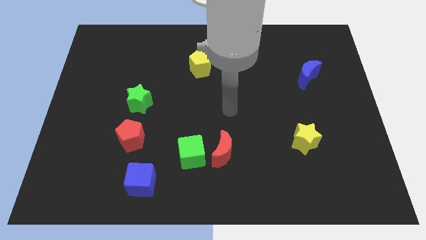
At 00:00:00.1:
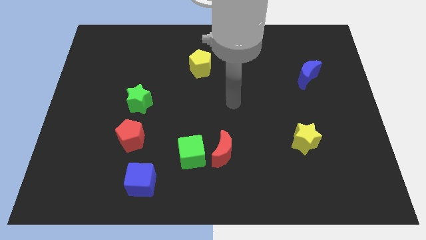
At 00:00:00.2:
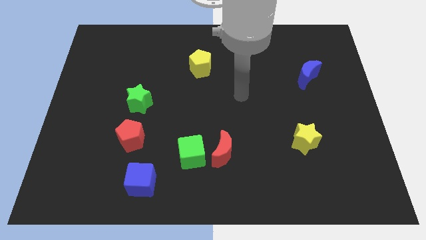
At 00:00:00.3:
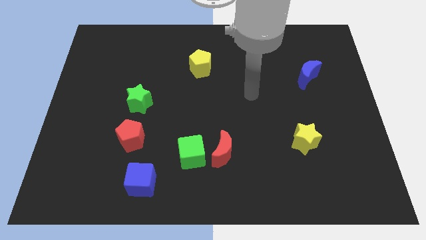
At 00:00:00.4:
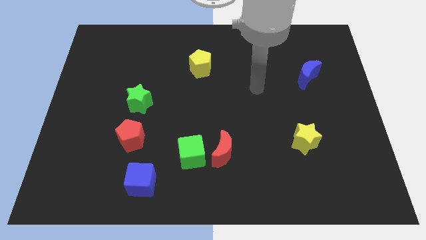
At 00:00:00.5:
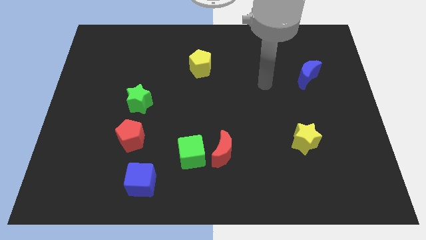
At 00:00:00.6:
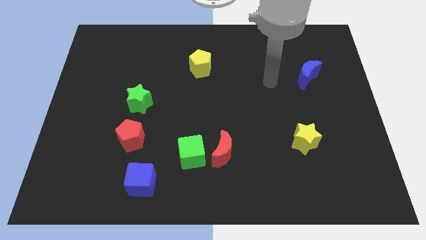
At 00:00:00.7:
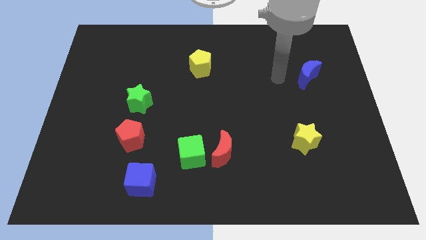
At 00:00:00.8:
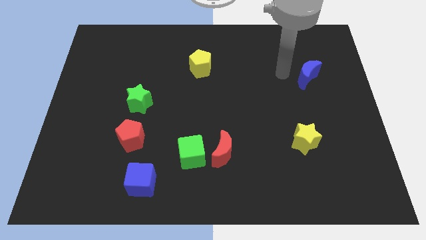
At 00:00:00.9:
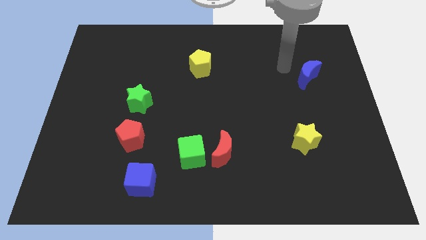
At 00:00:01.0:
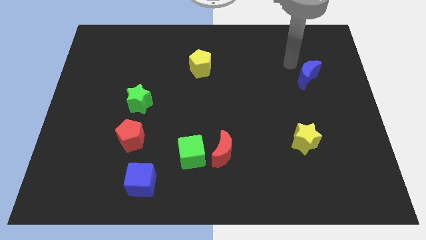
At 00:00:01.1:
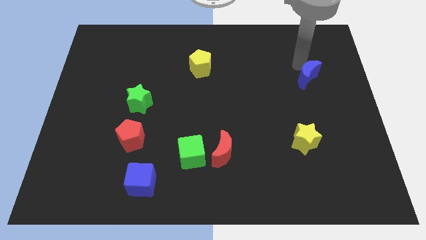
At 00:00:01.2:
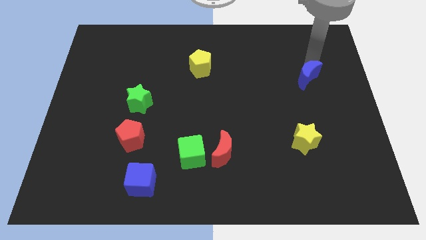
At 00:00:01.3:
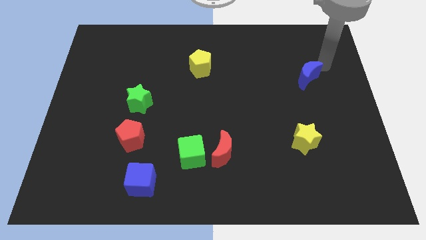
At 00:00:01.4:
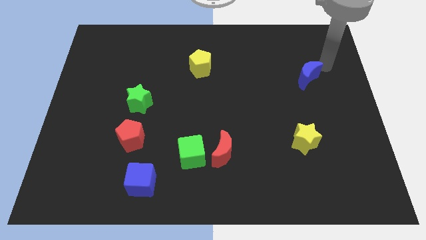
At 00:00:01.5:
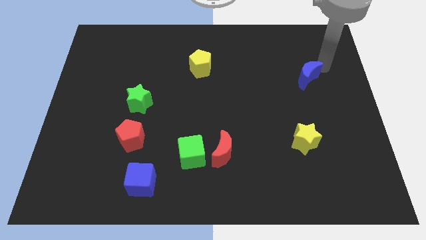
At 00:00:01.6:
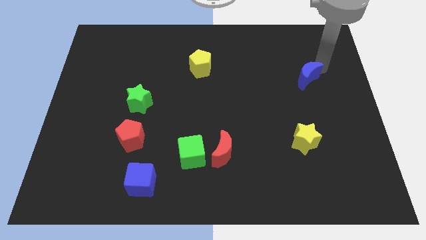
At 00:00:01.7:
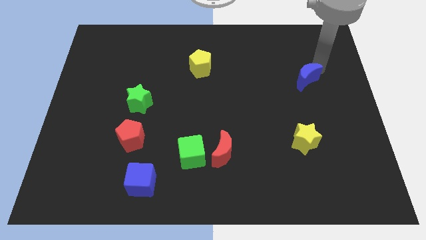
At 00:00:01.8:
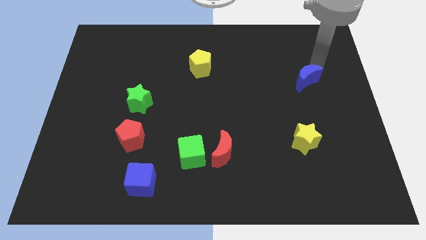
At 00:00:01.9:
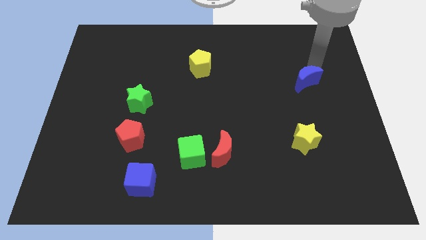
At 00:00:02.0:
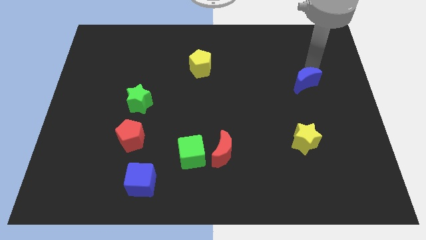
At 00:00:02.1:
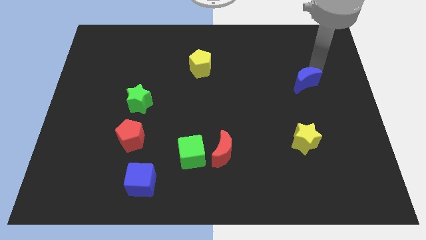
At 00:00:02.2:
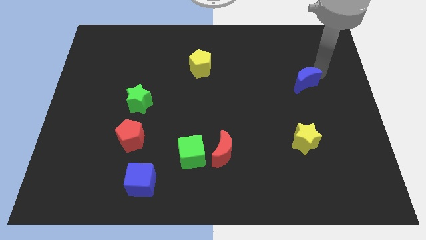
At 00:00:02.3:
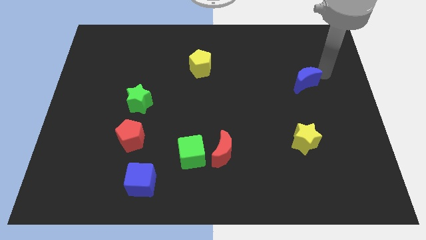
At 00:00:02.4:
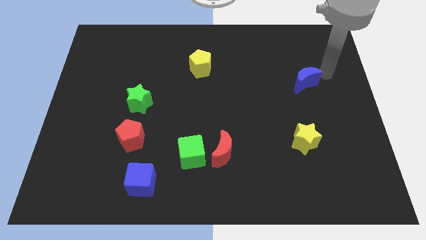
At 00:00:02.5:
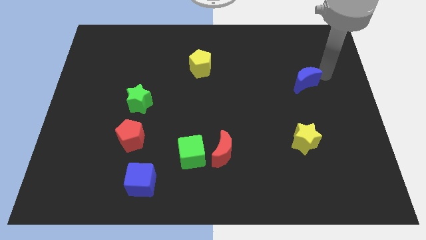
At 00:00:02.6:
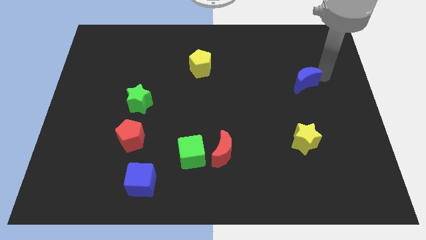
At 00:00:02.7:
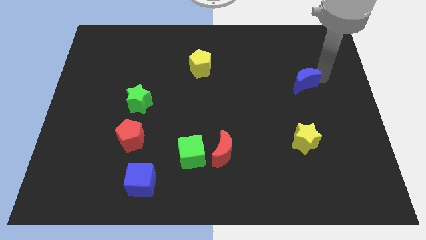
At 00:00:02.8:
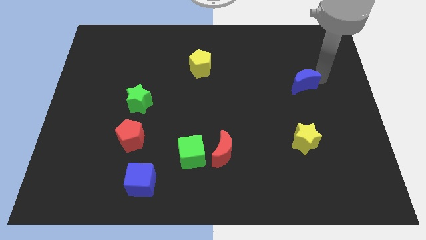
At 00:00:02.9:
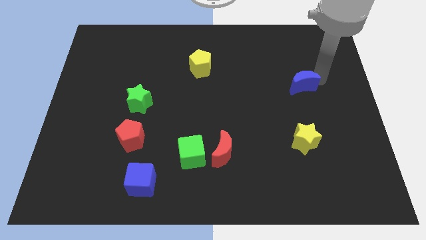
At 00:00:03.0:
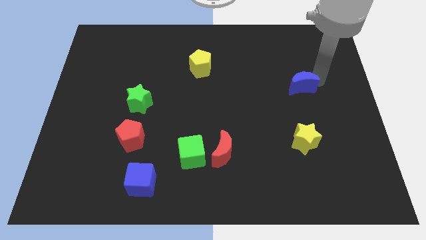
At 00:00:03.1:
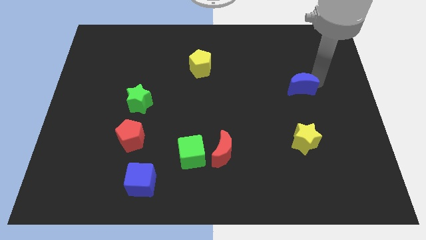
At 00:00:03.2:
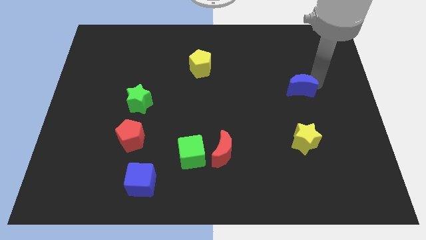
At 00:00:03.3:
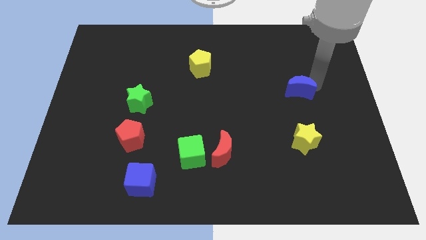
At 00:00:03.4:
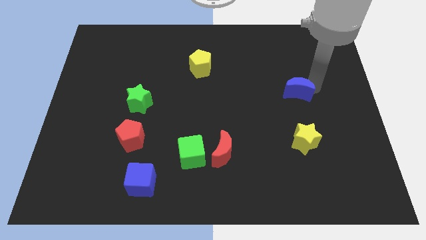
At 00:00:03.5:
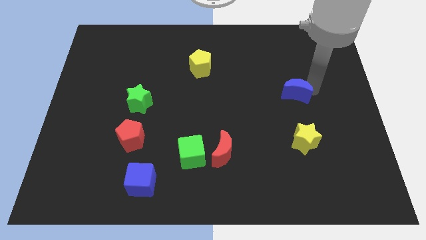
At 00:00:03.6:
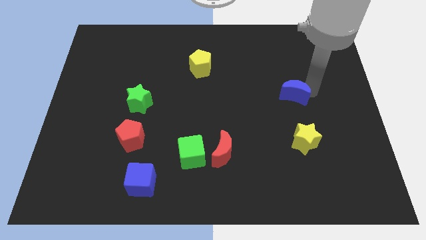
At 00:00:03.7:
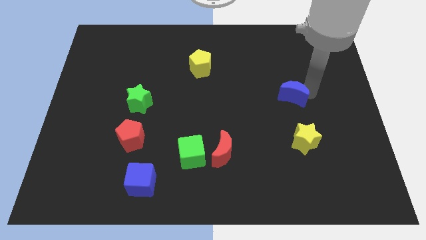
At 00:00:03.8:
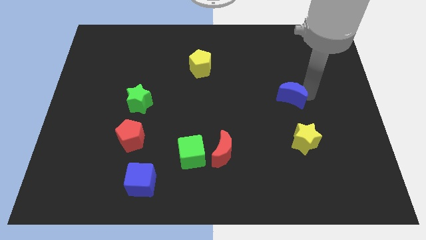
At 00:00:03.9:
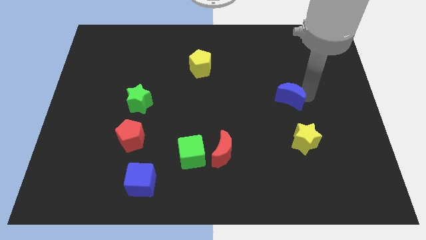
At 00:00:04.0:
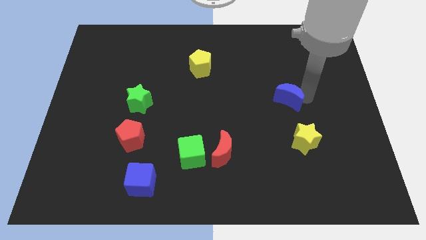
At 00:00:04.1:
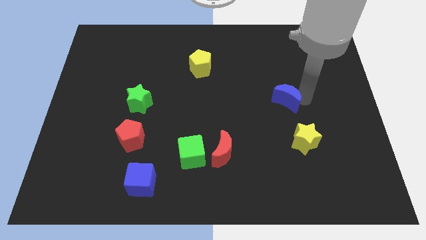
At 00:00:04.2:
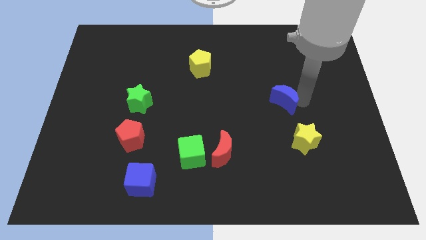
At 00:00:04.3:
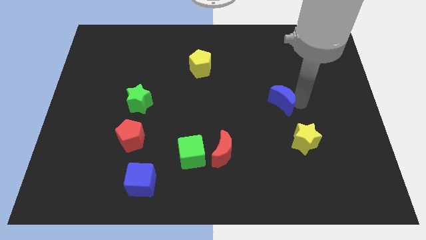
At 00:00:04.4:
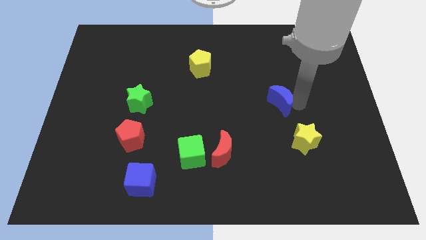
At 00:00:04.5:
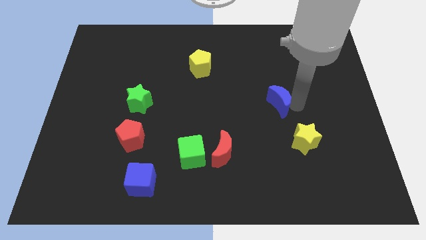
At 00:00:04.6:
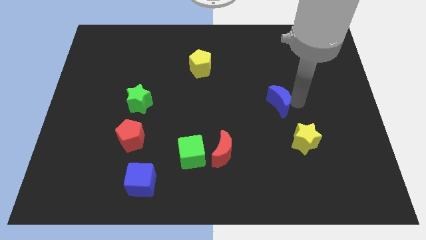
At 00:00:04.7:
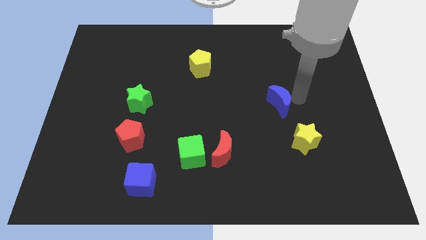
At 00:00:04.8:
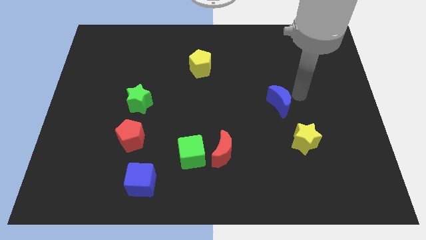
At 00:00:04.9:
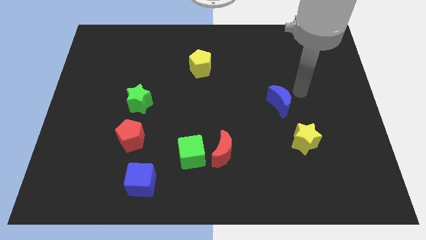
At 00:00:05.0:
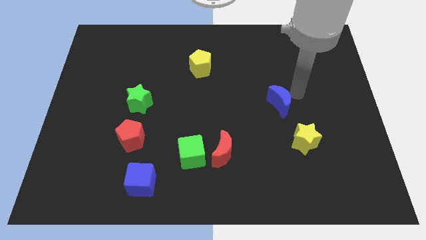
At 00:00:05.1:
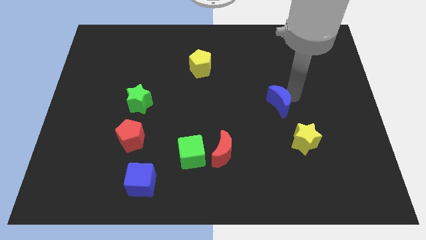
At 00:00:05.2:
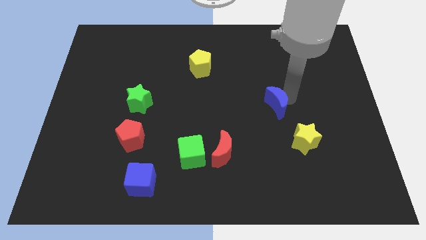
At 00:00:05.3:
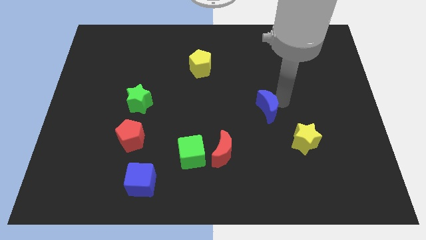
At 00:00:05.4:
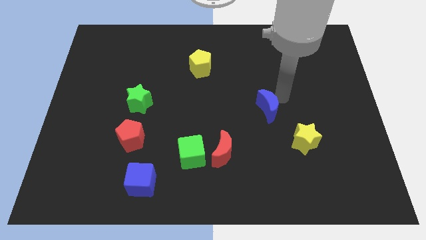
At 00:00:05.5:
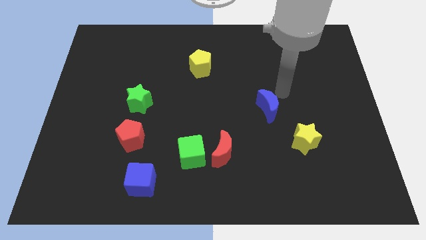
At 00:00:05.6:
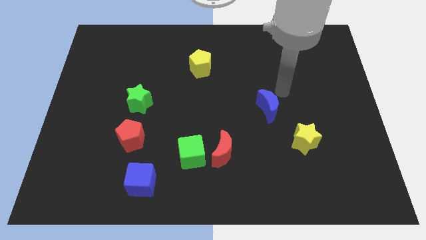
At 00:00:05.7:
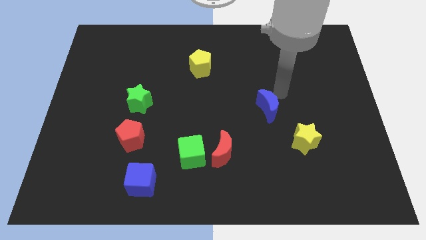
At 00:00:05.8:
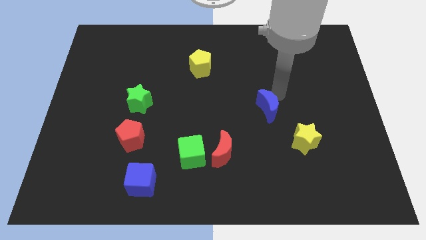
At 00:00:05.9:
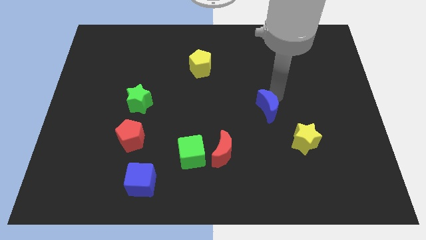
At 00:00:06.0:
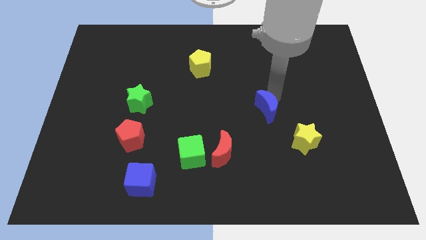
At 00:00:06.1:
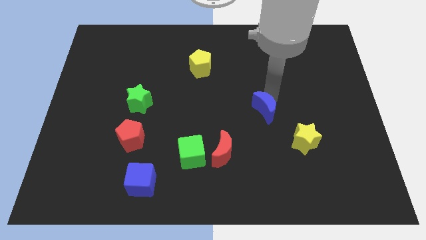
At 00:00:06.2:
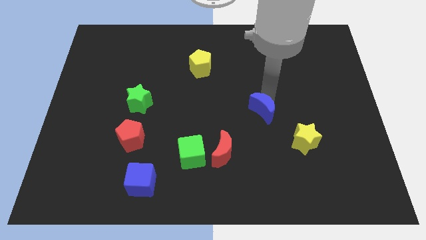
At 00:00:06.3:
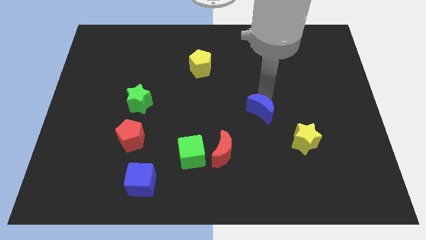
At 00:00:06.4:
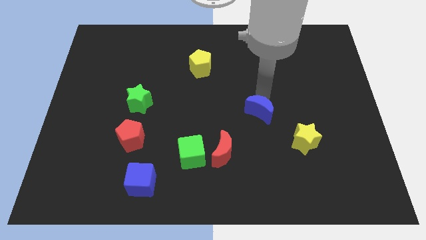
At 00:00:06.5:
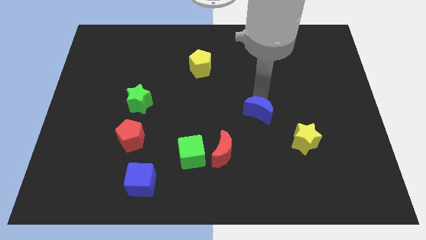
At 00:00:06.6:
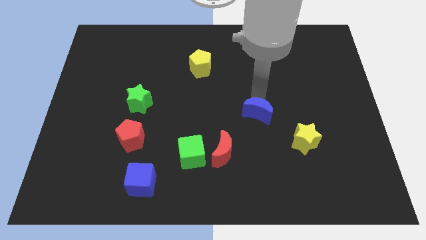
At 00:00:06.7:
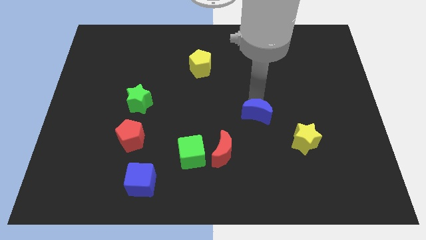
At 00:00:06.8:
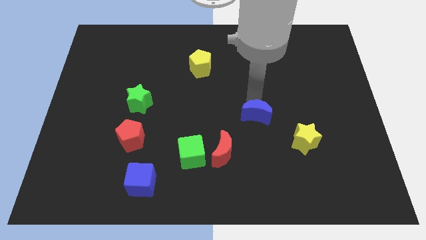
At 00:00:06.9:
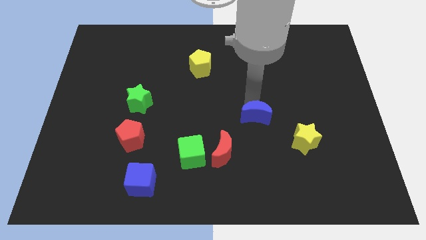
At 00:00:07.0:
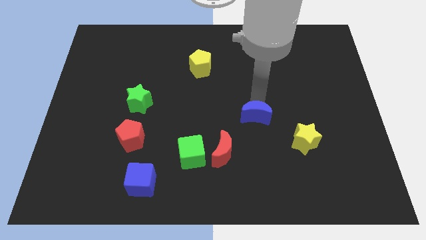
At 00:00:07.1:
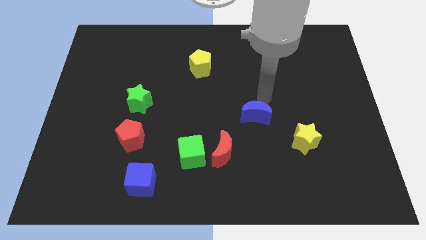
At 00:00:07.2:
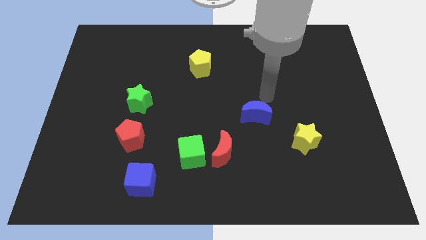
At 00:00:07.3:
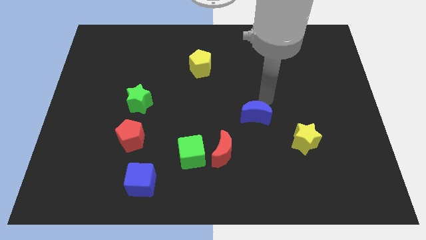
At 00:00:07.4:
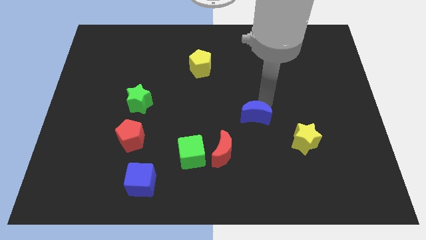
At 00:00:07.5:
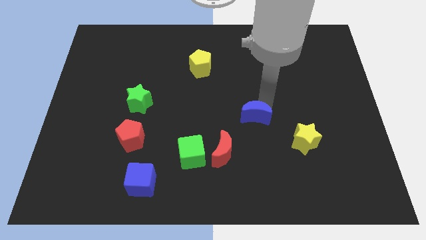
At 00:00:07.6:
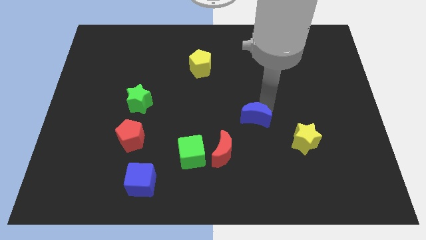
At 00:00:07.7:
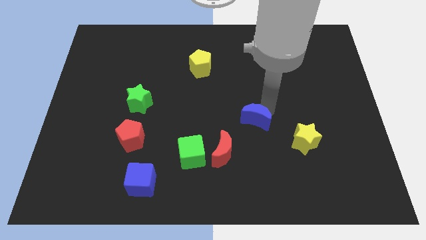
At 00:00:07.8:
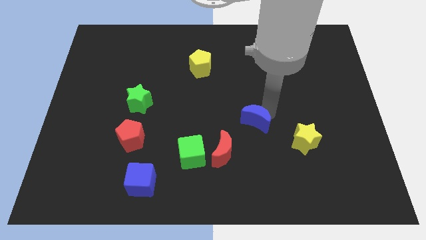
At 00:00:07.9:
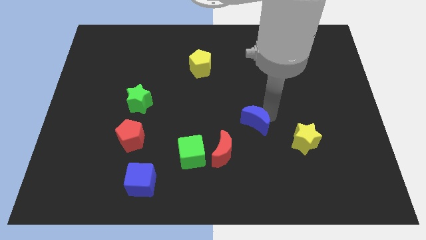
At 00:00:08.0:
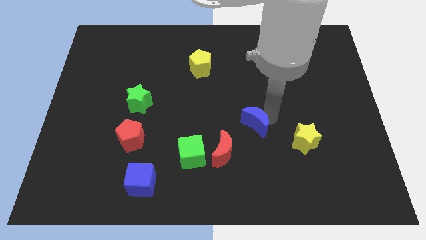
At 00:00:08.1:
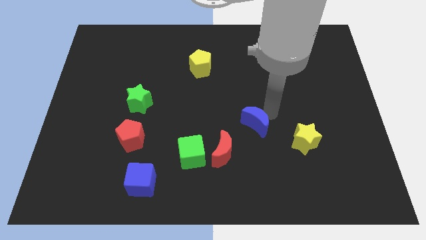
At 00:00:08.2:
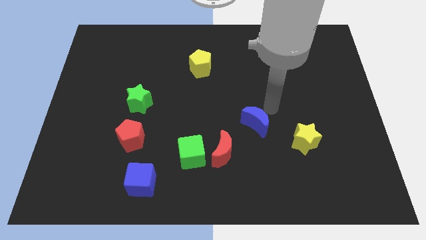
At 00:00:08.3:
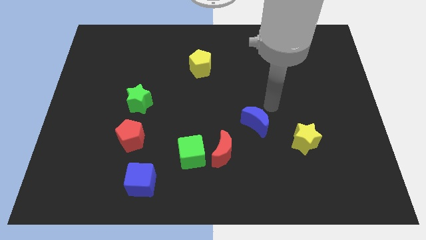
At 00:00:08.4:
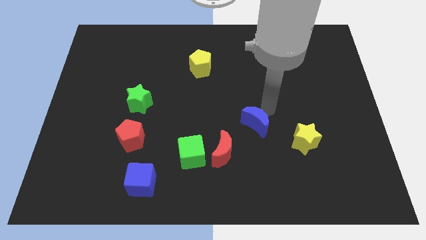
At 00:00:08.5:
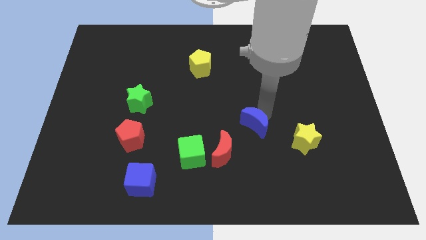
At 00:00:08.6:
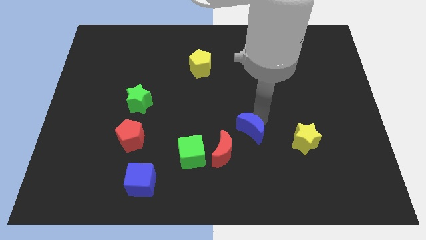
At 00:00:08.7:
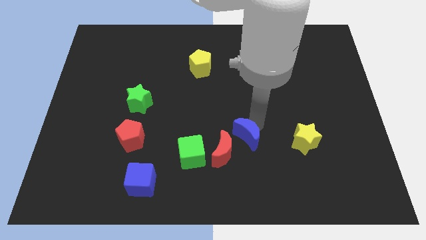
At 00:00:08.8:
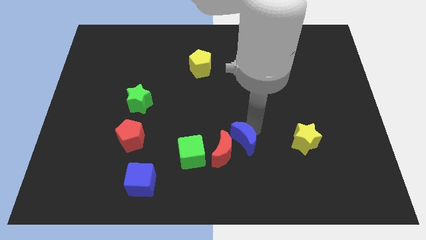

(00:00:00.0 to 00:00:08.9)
push the blue moon next to the red moon
